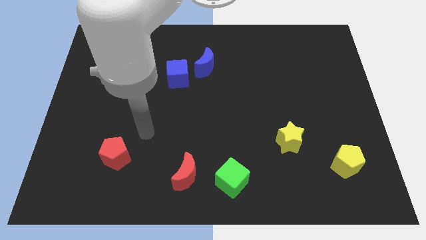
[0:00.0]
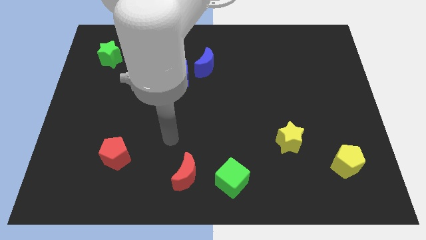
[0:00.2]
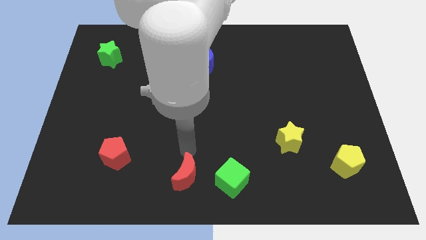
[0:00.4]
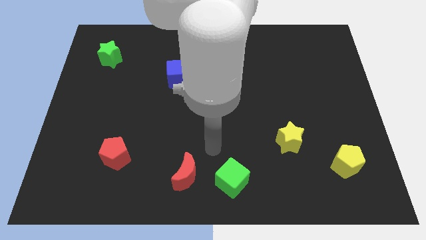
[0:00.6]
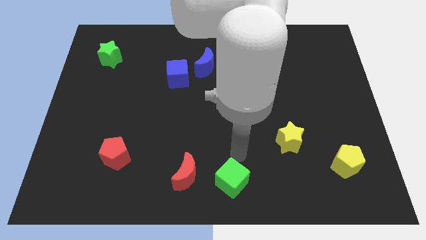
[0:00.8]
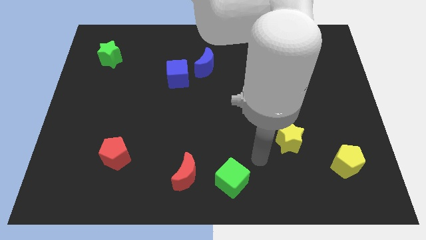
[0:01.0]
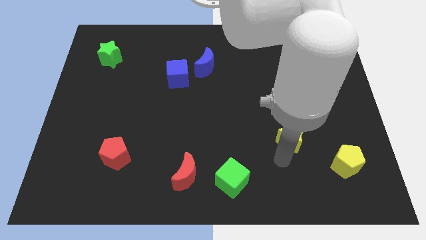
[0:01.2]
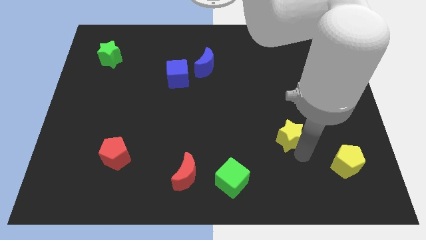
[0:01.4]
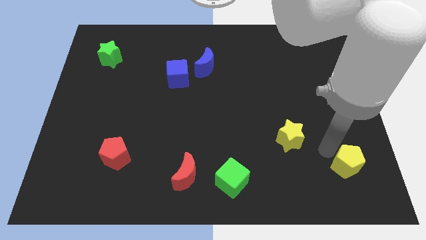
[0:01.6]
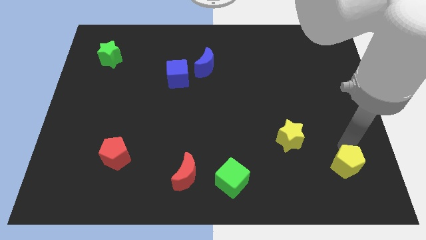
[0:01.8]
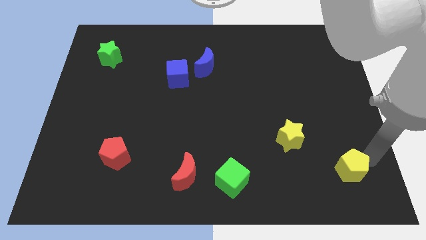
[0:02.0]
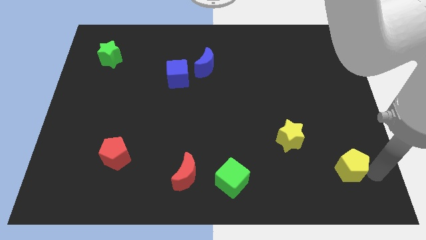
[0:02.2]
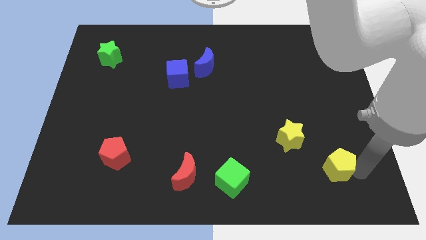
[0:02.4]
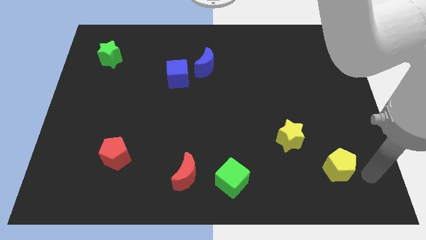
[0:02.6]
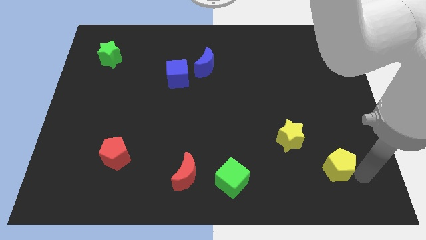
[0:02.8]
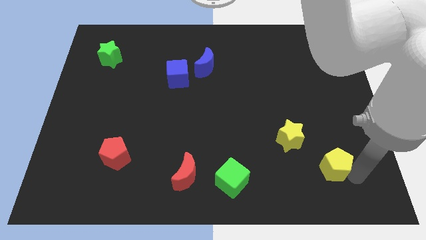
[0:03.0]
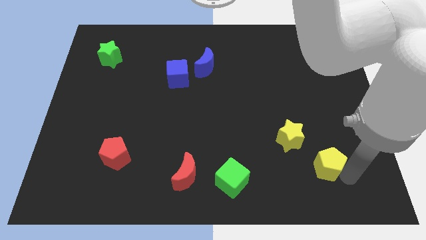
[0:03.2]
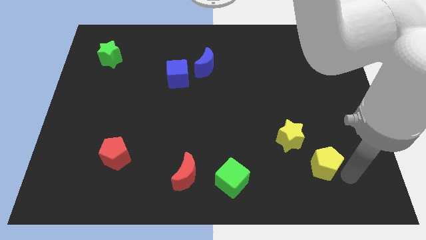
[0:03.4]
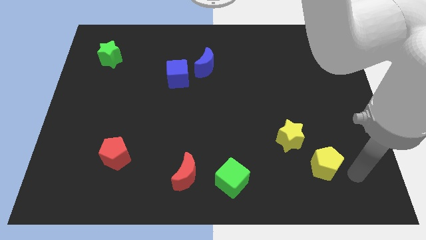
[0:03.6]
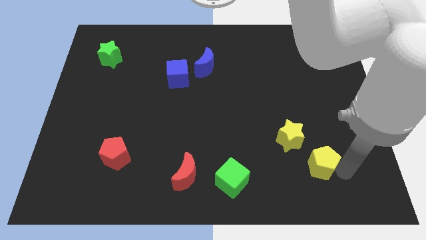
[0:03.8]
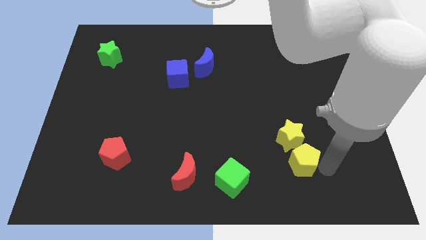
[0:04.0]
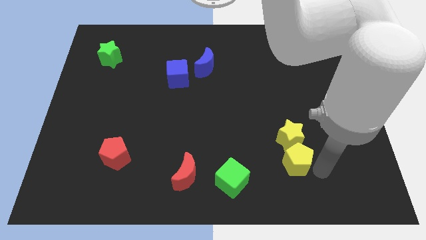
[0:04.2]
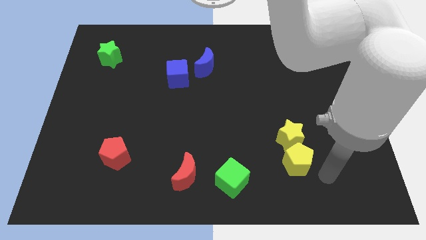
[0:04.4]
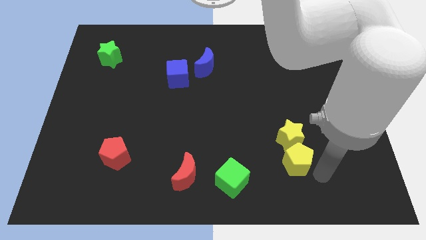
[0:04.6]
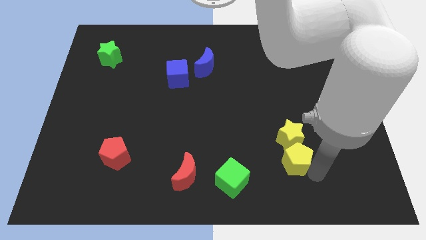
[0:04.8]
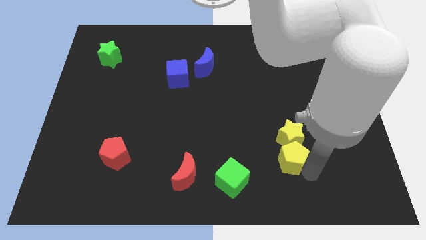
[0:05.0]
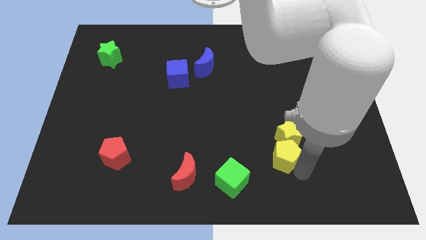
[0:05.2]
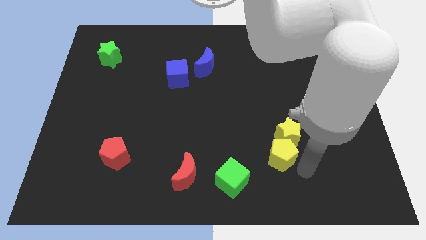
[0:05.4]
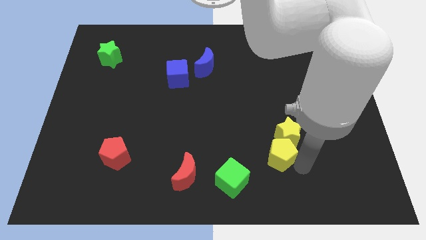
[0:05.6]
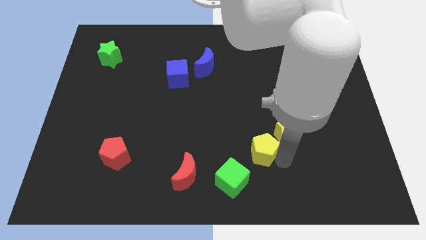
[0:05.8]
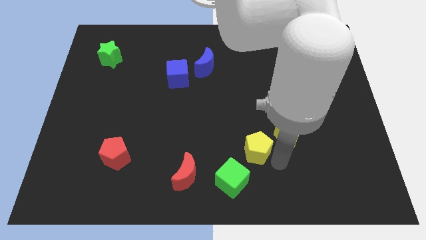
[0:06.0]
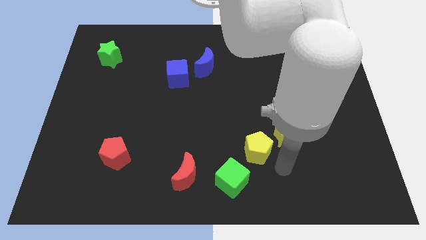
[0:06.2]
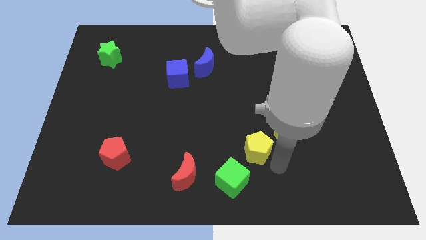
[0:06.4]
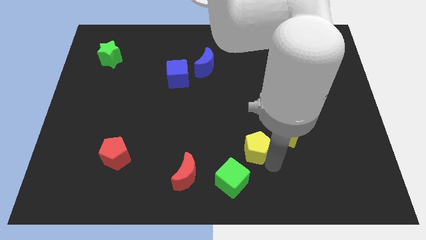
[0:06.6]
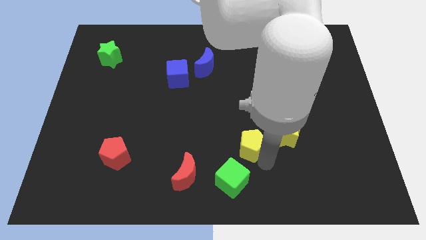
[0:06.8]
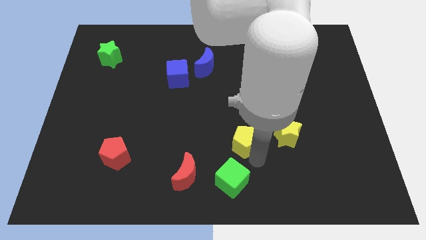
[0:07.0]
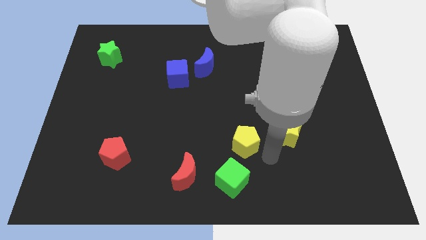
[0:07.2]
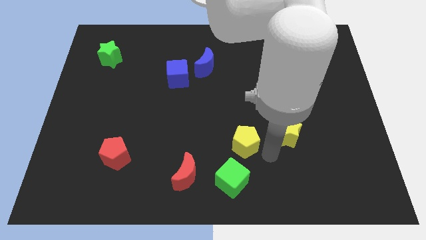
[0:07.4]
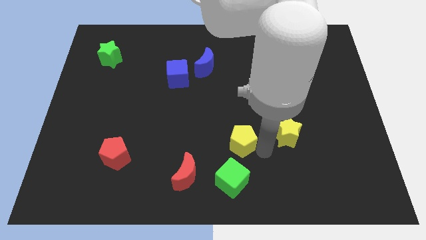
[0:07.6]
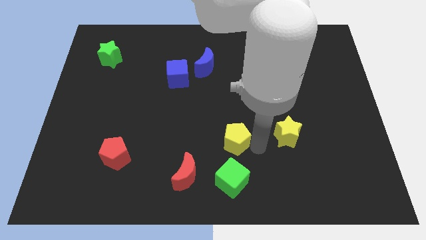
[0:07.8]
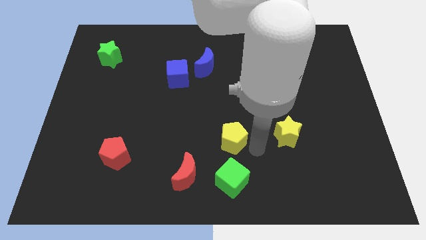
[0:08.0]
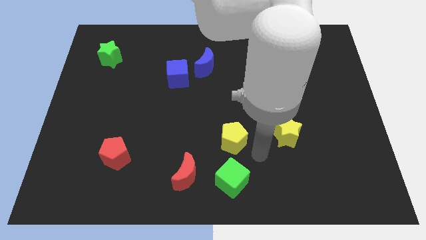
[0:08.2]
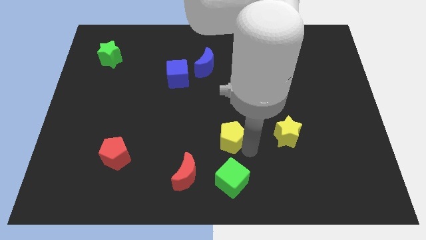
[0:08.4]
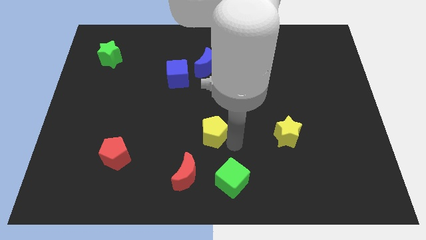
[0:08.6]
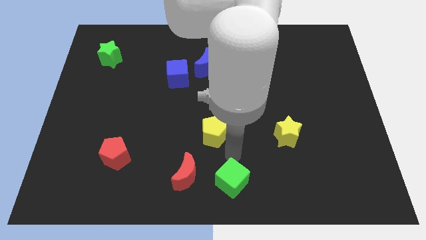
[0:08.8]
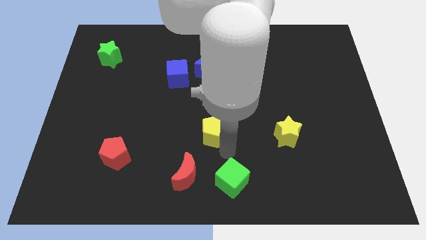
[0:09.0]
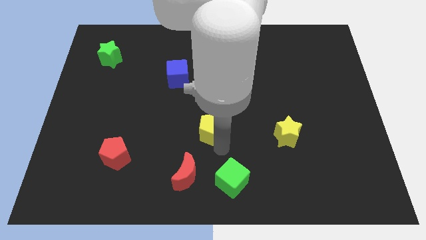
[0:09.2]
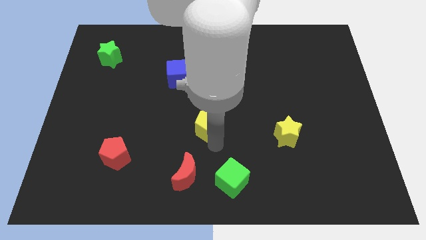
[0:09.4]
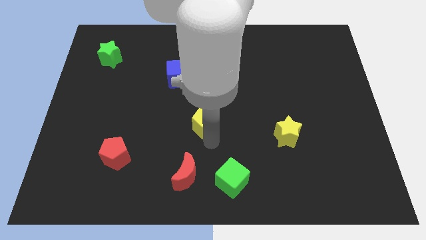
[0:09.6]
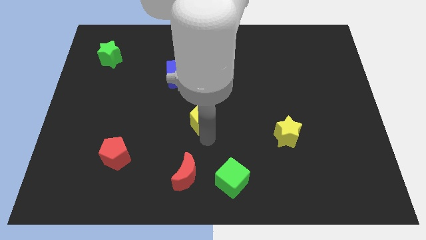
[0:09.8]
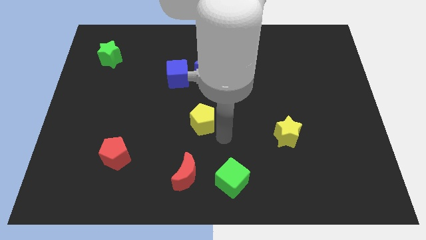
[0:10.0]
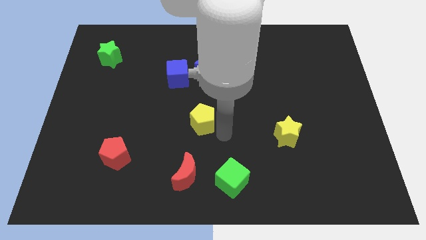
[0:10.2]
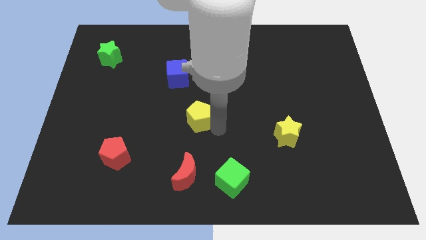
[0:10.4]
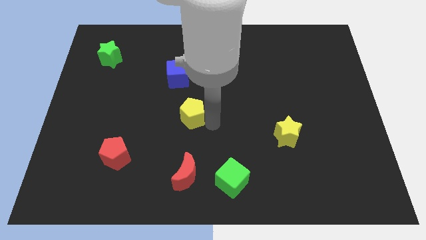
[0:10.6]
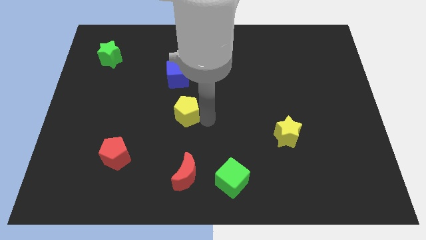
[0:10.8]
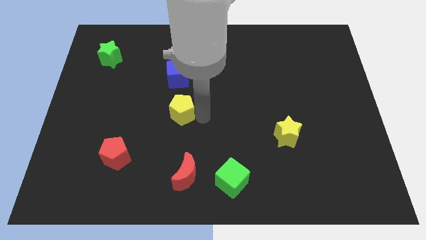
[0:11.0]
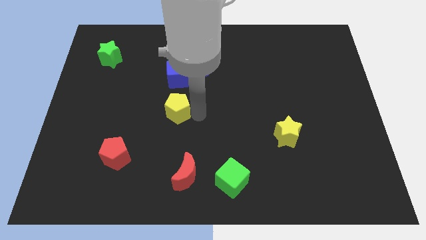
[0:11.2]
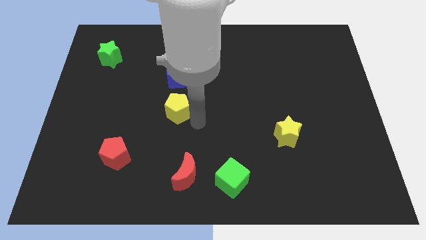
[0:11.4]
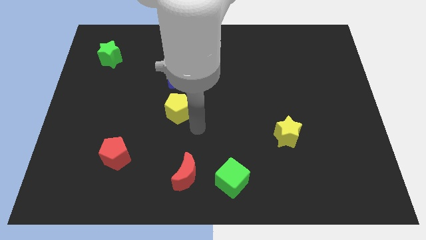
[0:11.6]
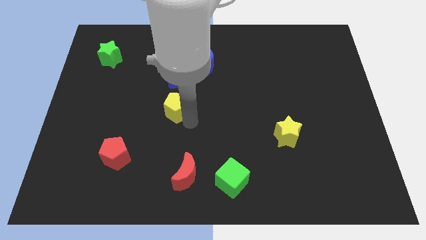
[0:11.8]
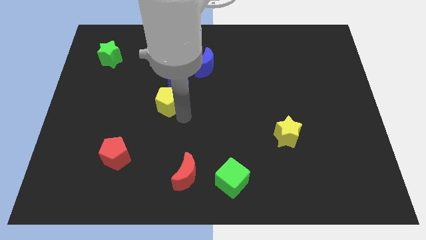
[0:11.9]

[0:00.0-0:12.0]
push the yellow pentagon diagonally down and to the left of the blue cube
